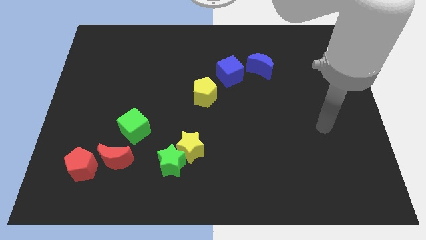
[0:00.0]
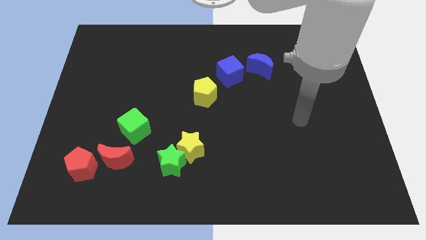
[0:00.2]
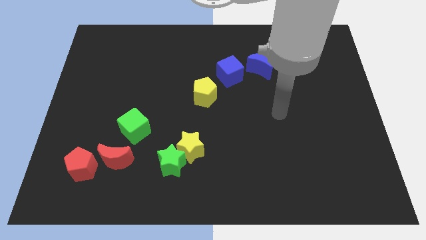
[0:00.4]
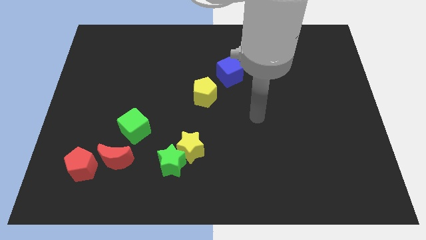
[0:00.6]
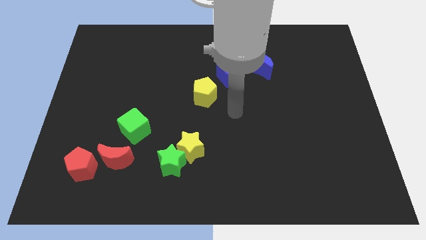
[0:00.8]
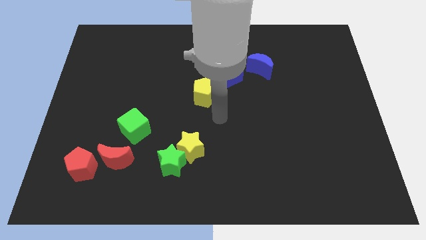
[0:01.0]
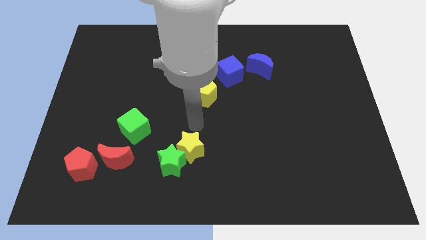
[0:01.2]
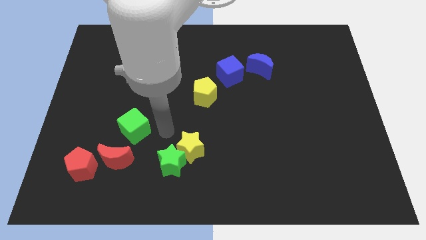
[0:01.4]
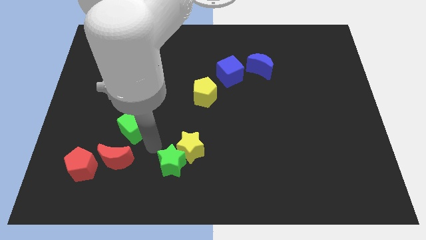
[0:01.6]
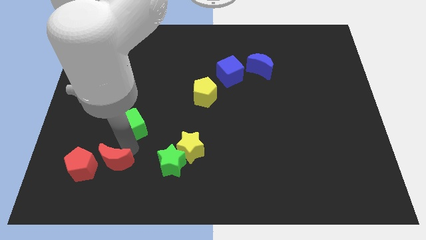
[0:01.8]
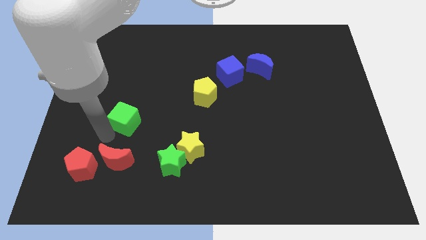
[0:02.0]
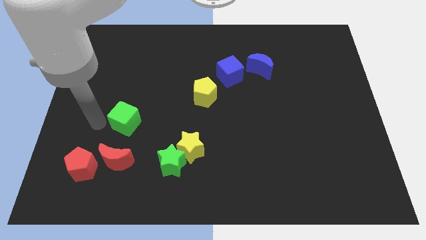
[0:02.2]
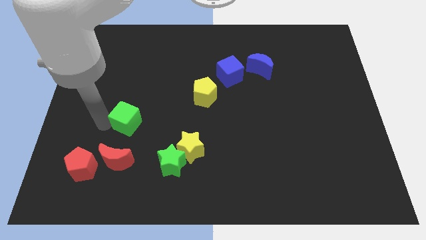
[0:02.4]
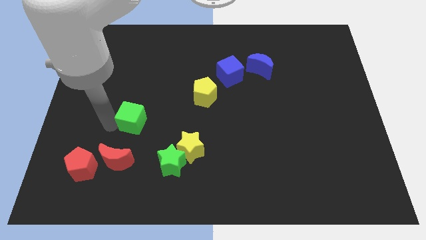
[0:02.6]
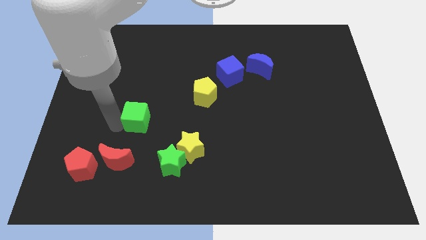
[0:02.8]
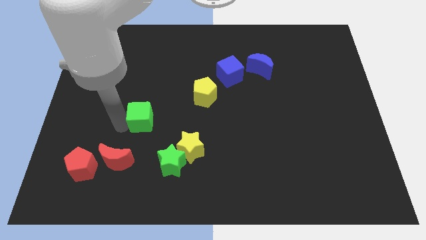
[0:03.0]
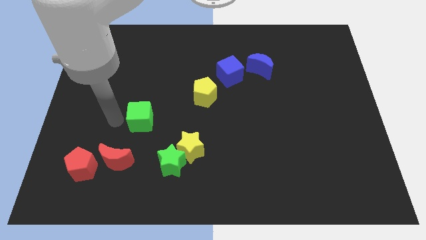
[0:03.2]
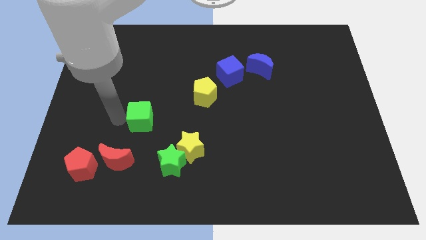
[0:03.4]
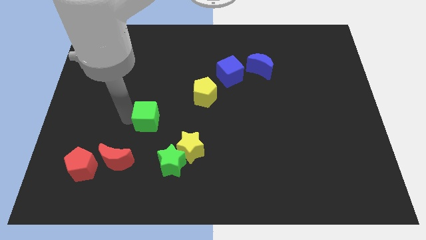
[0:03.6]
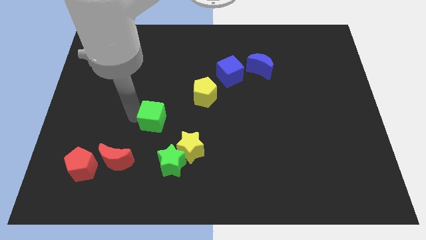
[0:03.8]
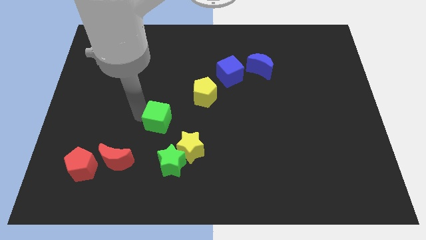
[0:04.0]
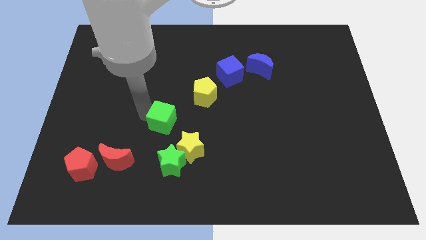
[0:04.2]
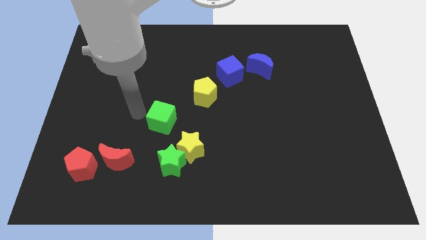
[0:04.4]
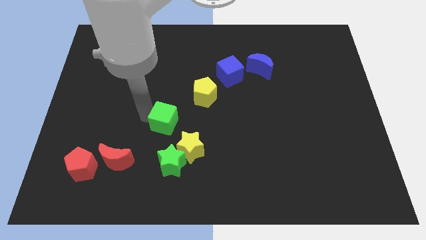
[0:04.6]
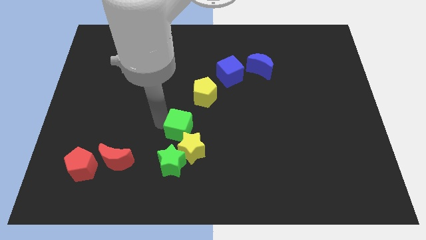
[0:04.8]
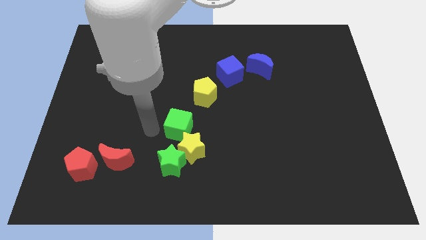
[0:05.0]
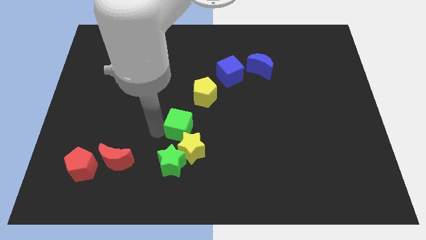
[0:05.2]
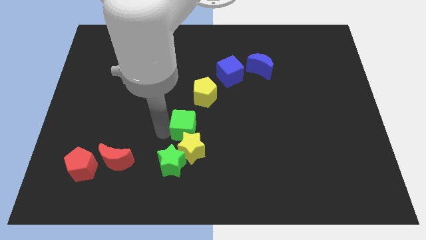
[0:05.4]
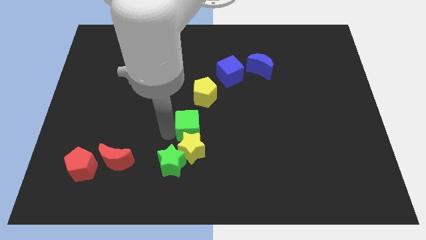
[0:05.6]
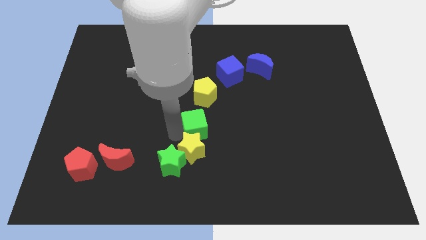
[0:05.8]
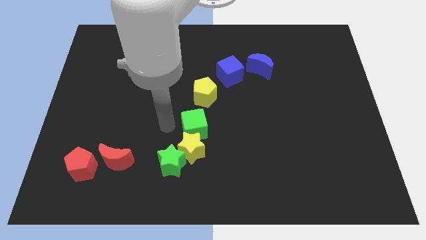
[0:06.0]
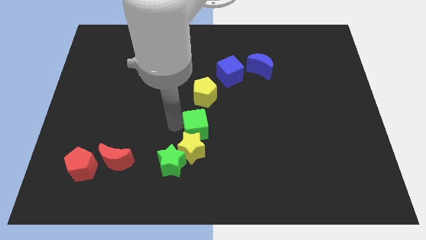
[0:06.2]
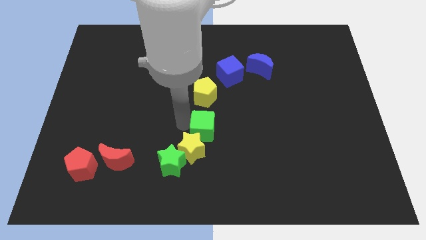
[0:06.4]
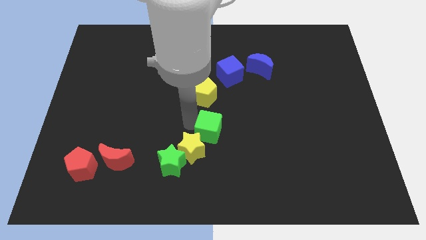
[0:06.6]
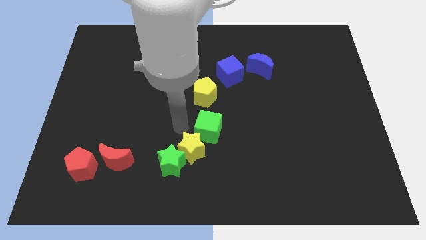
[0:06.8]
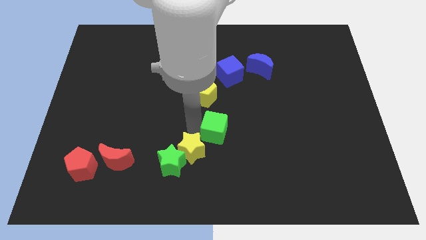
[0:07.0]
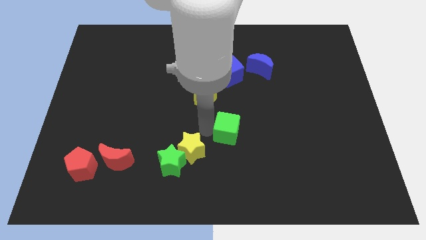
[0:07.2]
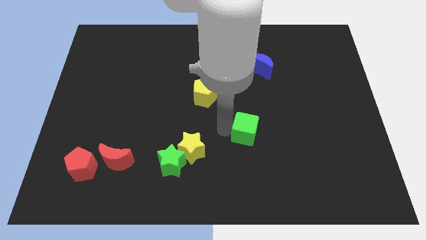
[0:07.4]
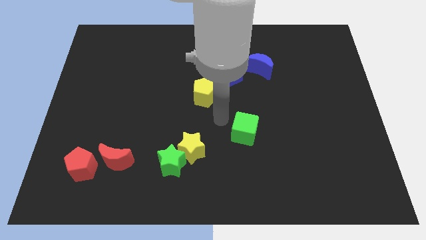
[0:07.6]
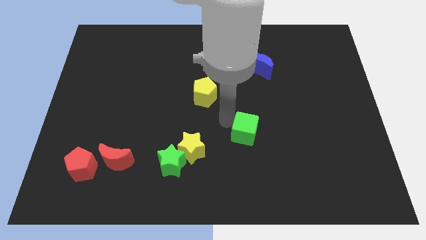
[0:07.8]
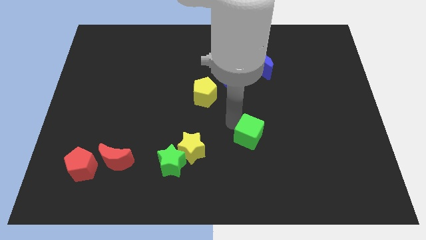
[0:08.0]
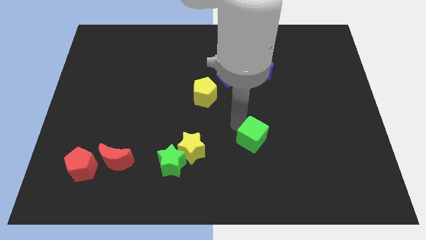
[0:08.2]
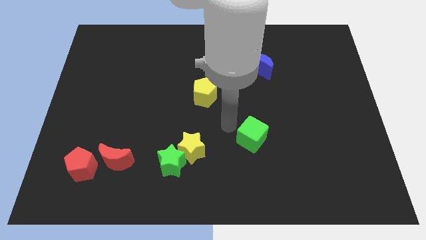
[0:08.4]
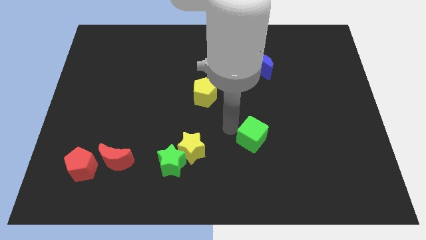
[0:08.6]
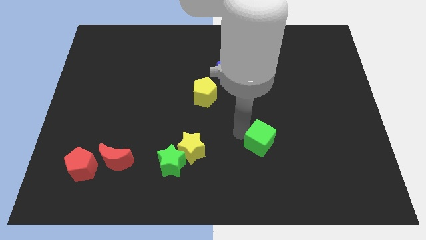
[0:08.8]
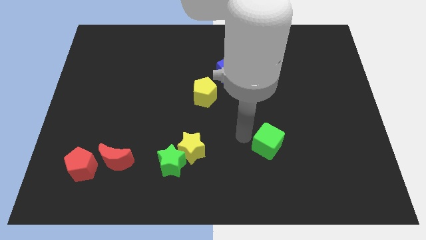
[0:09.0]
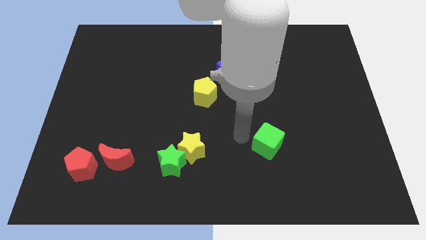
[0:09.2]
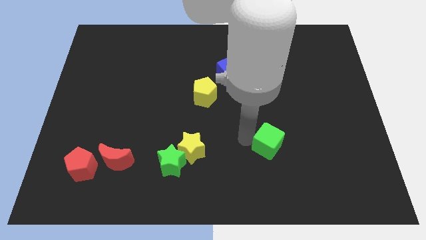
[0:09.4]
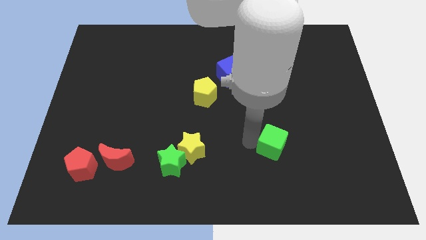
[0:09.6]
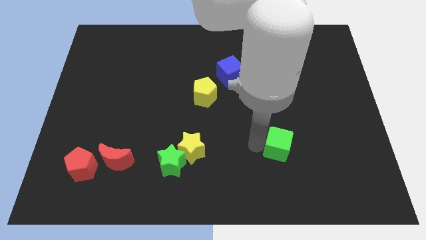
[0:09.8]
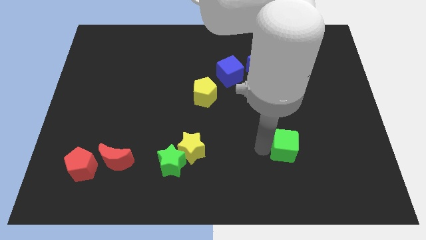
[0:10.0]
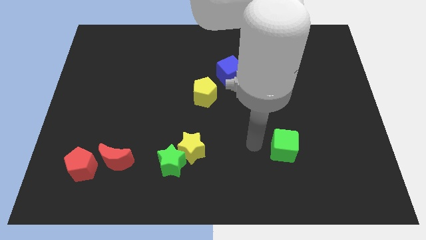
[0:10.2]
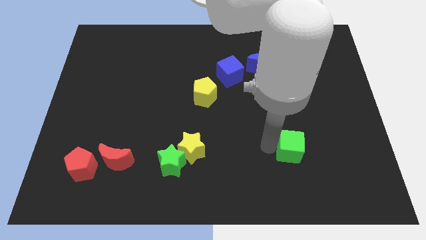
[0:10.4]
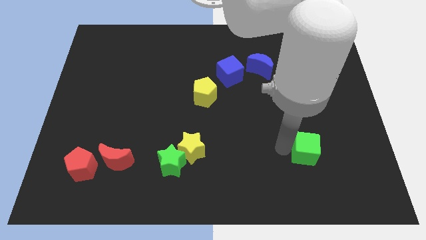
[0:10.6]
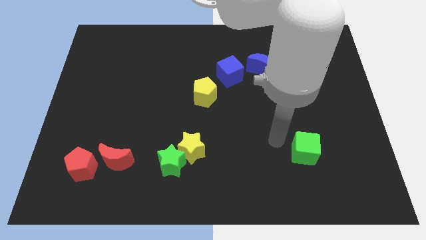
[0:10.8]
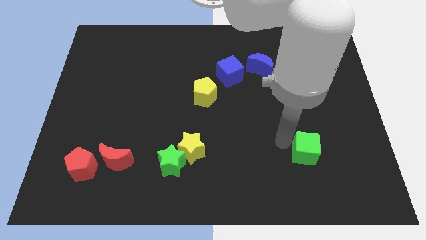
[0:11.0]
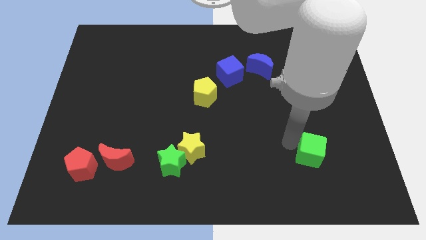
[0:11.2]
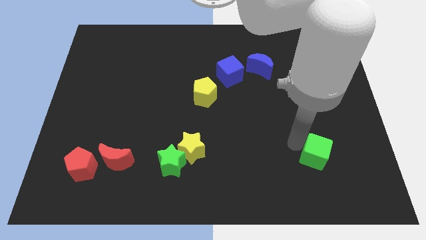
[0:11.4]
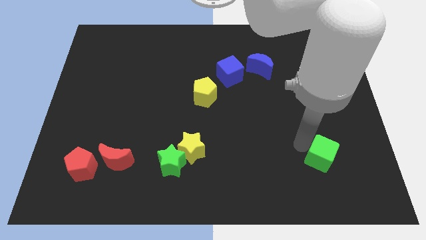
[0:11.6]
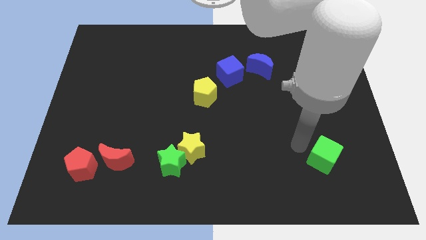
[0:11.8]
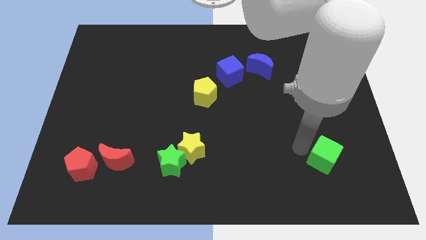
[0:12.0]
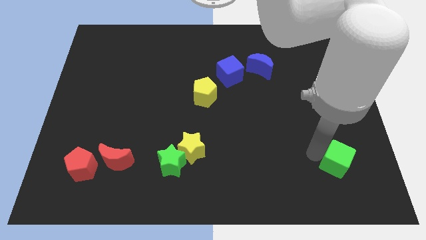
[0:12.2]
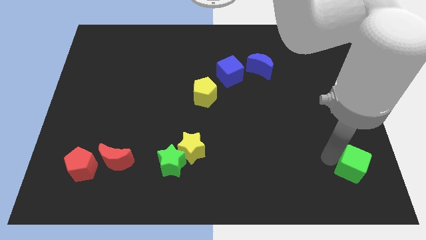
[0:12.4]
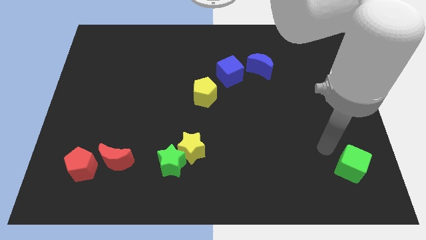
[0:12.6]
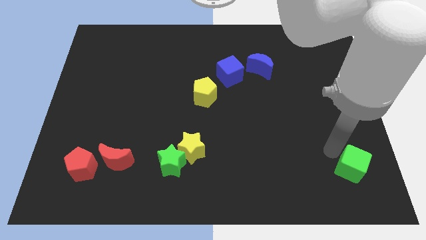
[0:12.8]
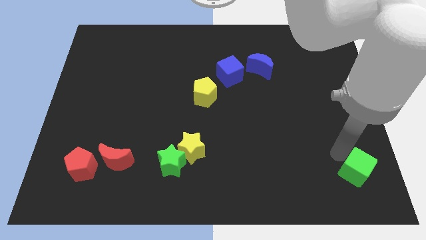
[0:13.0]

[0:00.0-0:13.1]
slide the green cube to the lower right corner

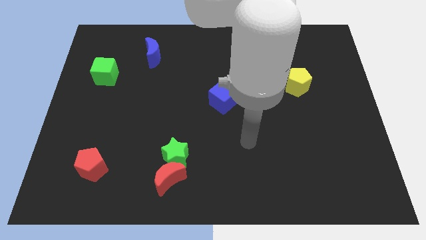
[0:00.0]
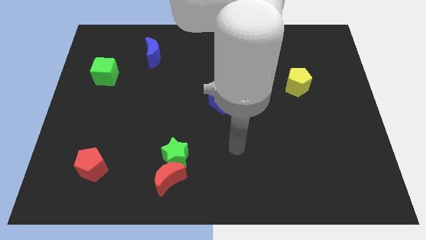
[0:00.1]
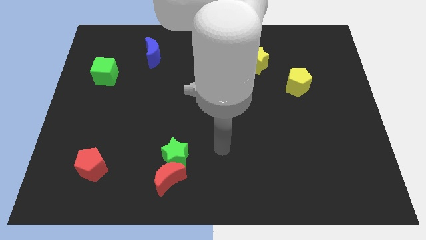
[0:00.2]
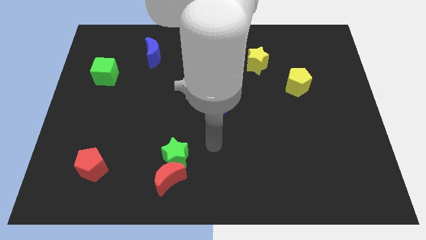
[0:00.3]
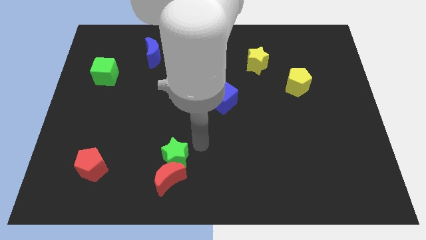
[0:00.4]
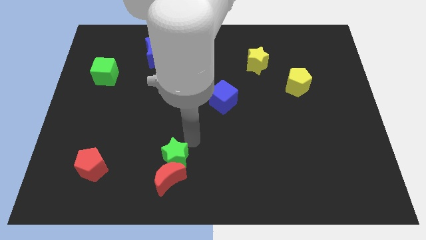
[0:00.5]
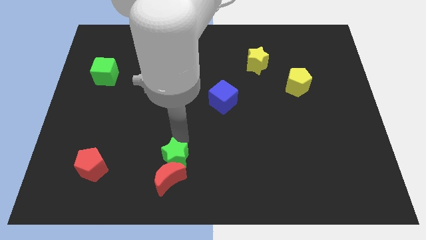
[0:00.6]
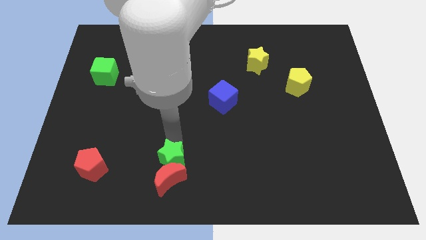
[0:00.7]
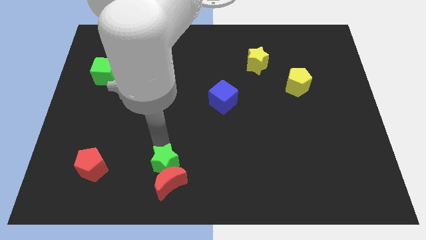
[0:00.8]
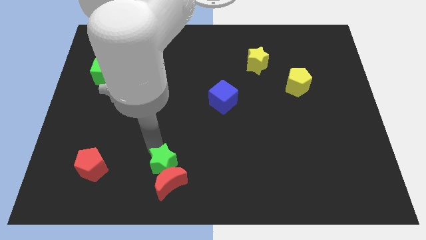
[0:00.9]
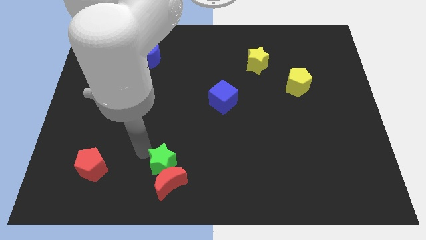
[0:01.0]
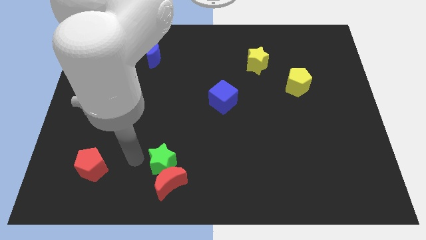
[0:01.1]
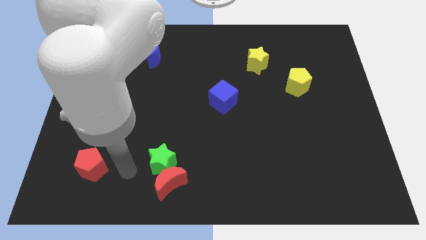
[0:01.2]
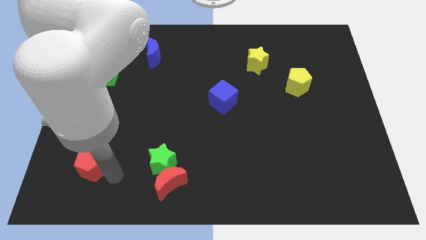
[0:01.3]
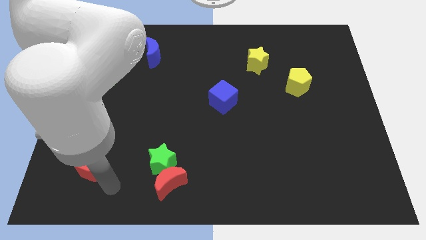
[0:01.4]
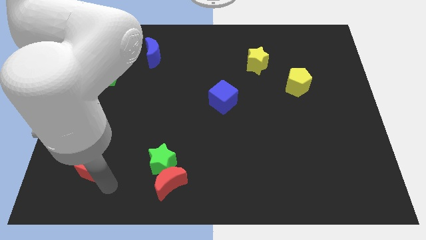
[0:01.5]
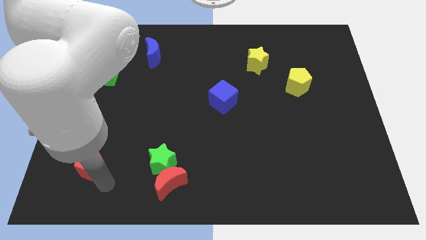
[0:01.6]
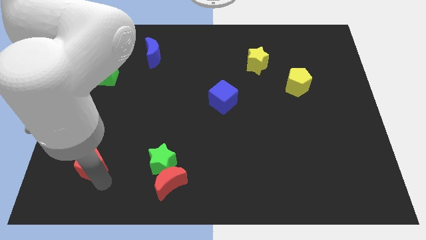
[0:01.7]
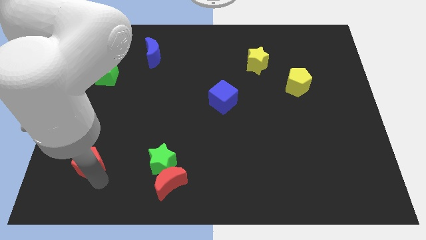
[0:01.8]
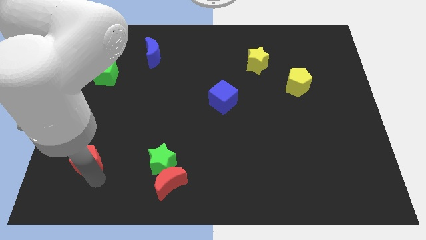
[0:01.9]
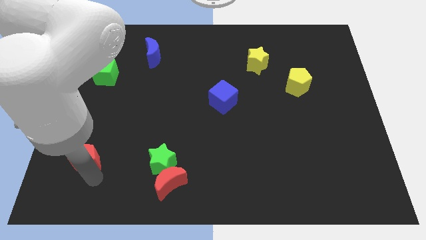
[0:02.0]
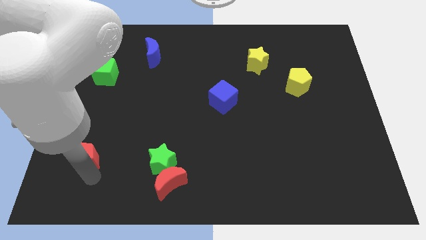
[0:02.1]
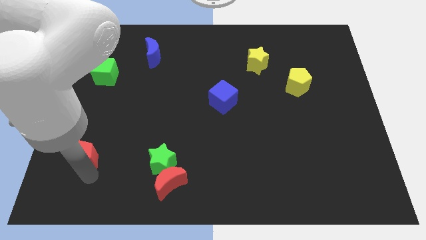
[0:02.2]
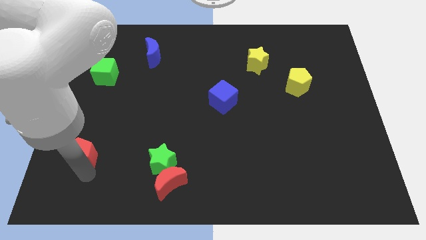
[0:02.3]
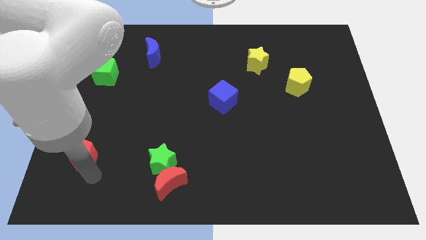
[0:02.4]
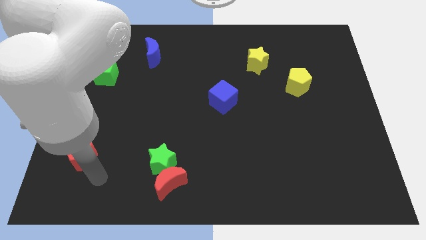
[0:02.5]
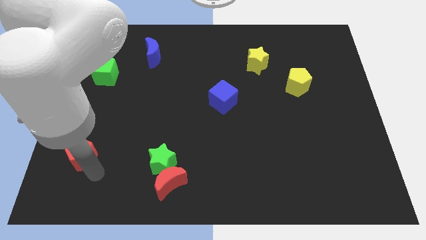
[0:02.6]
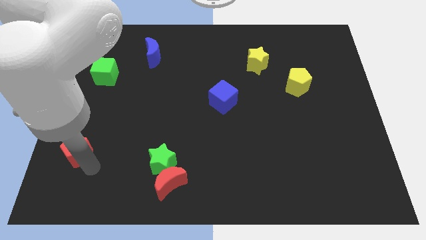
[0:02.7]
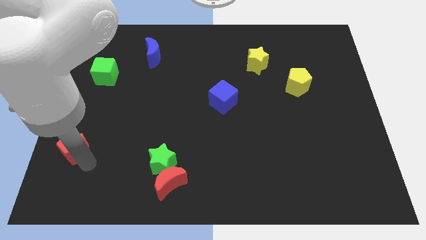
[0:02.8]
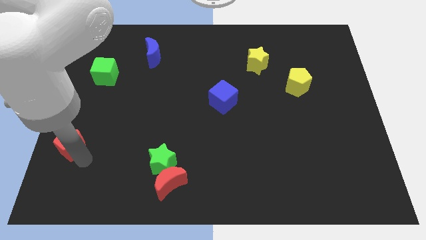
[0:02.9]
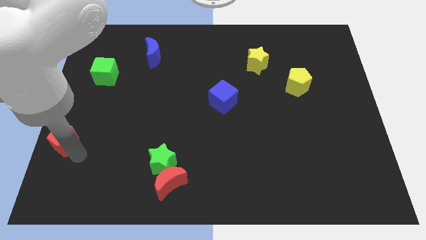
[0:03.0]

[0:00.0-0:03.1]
put the red pentagon to the left side
